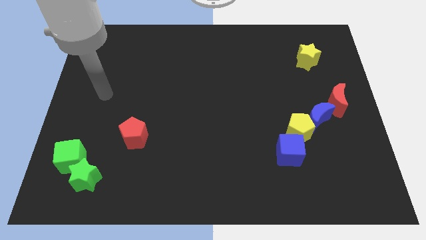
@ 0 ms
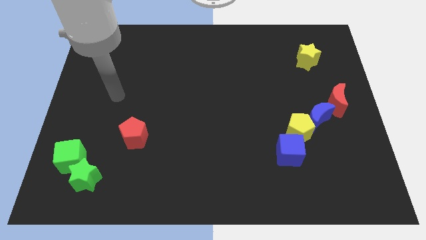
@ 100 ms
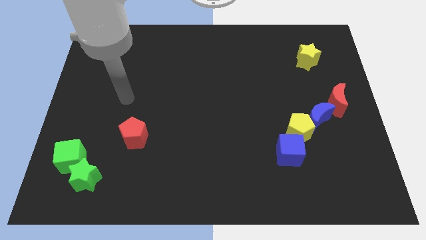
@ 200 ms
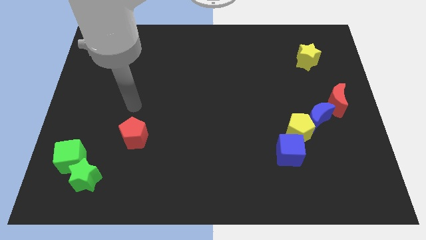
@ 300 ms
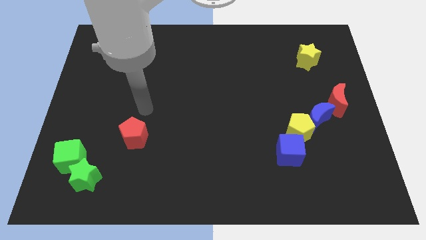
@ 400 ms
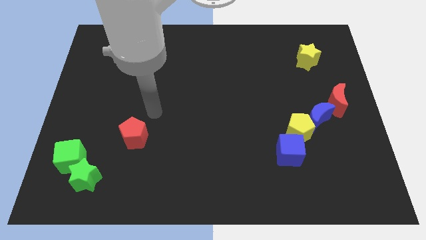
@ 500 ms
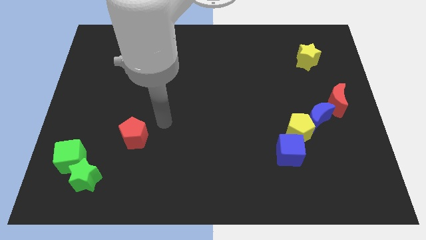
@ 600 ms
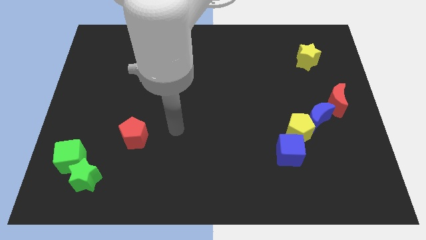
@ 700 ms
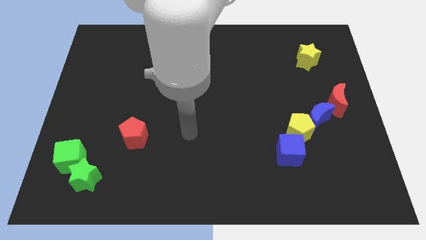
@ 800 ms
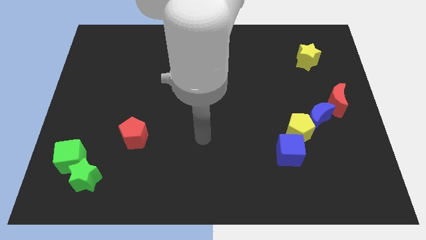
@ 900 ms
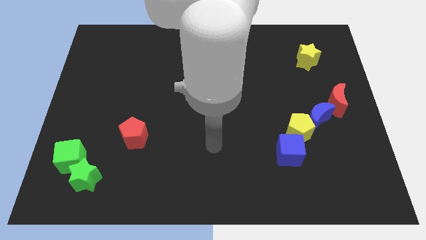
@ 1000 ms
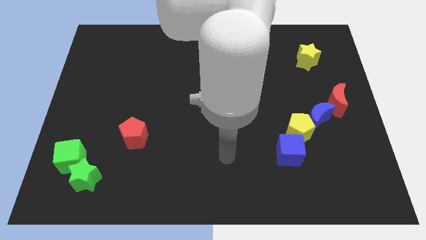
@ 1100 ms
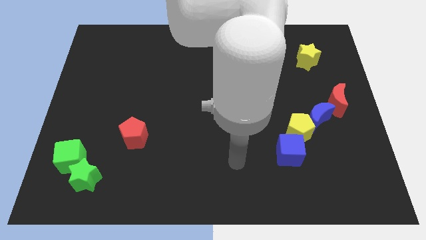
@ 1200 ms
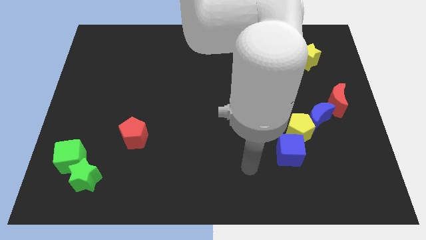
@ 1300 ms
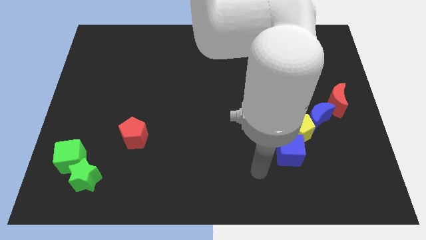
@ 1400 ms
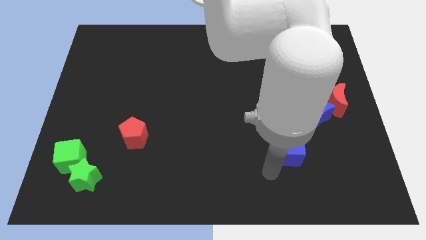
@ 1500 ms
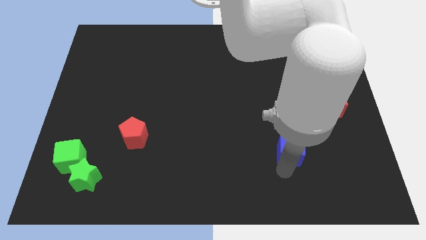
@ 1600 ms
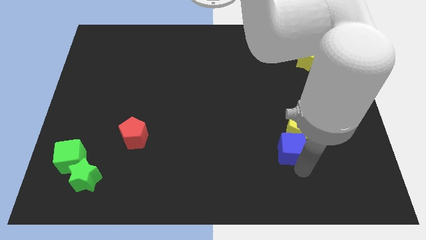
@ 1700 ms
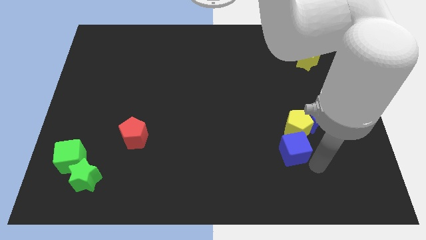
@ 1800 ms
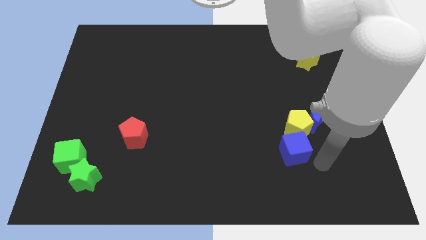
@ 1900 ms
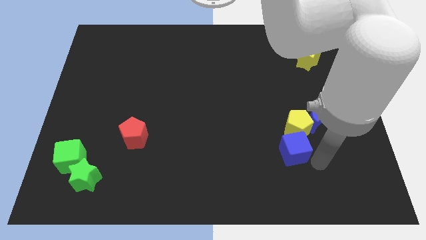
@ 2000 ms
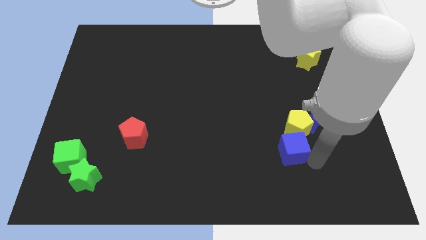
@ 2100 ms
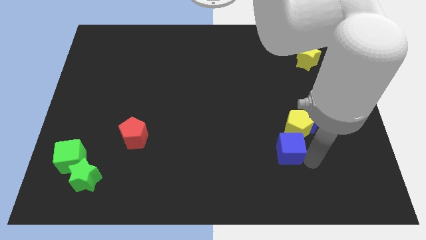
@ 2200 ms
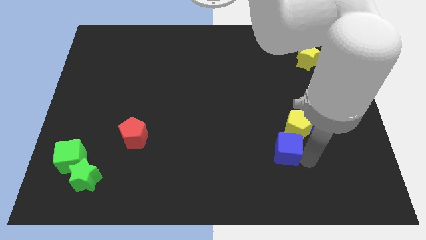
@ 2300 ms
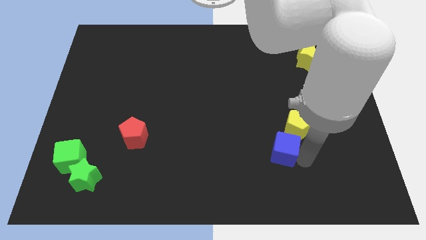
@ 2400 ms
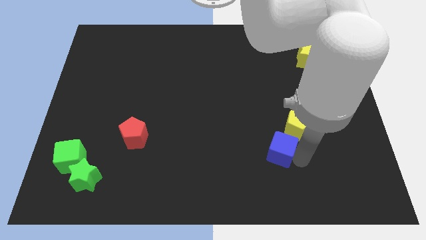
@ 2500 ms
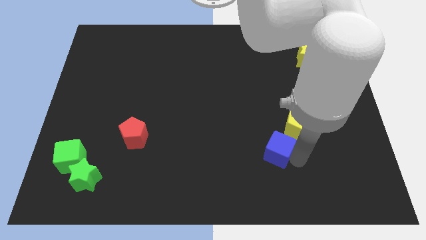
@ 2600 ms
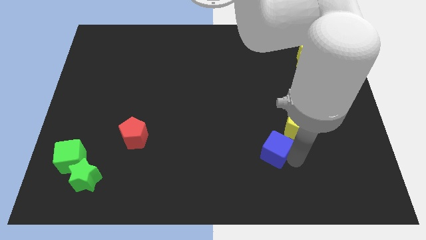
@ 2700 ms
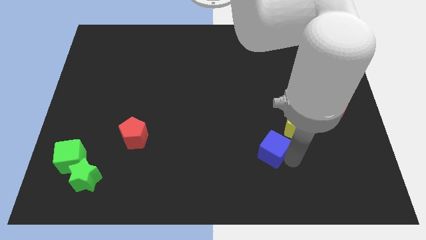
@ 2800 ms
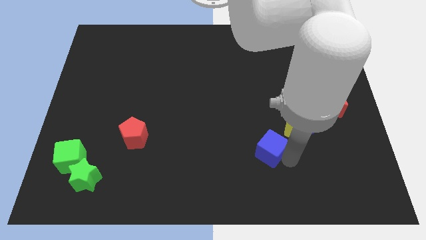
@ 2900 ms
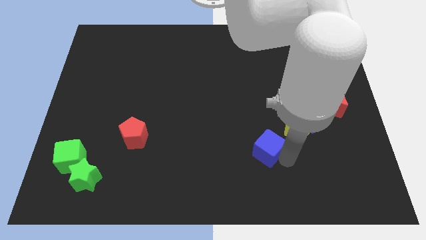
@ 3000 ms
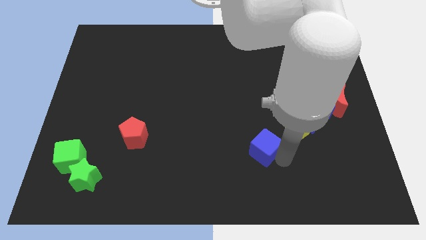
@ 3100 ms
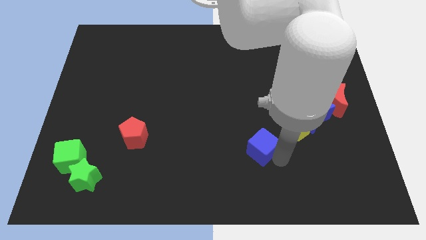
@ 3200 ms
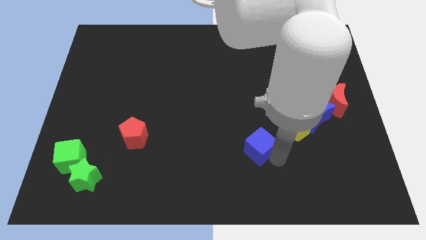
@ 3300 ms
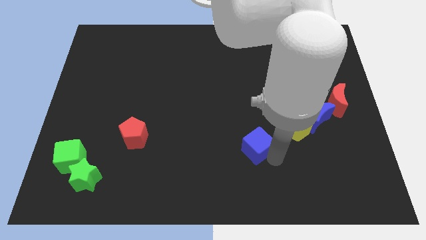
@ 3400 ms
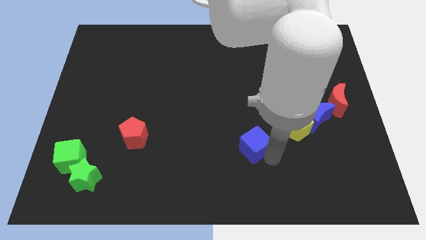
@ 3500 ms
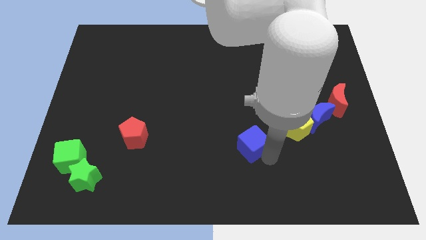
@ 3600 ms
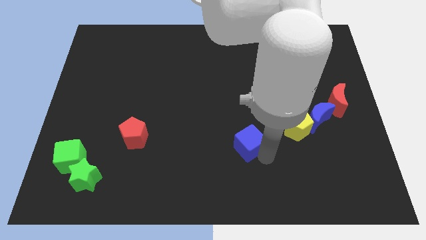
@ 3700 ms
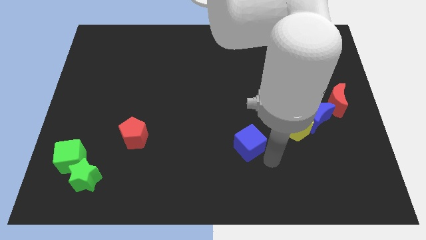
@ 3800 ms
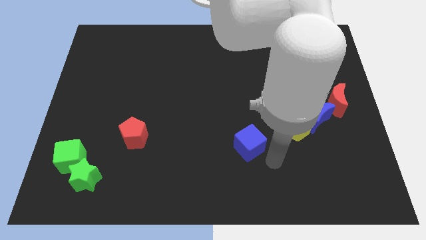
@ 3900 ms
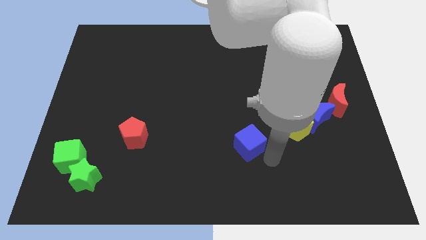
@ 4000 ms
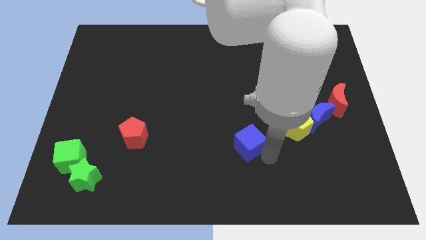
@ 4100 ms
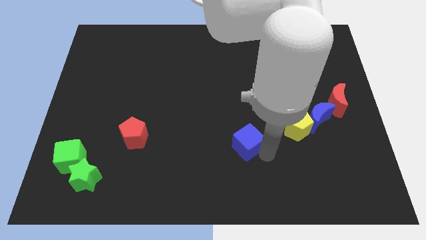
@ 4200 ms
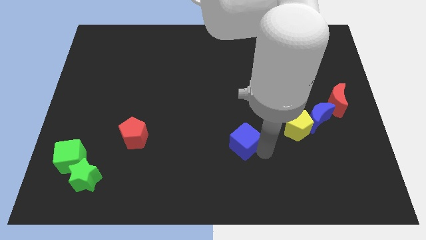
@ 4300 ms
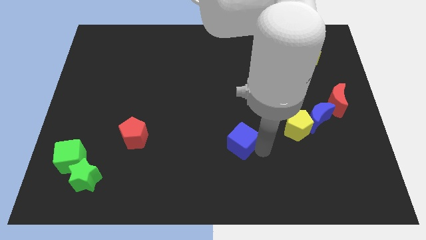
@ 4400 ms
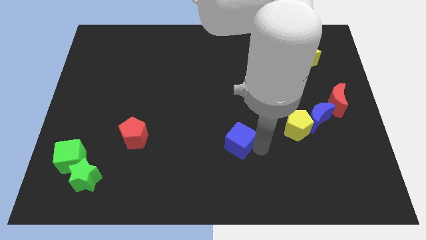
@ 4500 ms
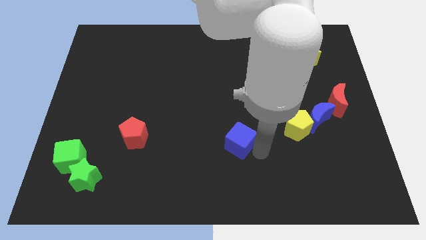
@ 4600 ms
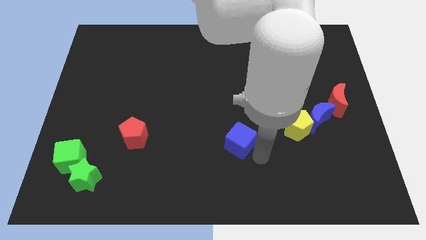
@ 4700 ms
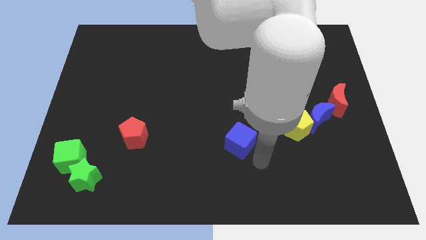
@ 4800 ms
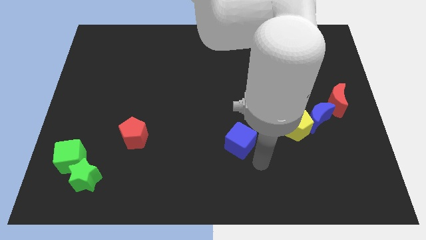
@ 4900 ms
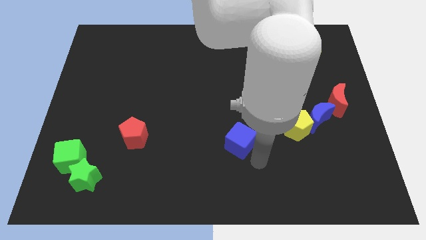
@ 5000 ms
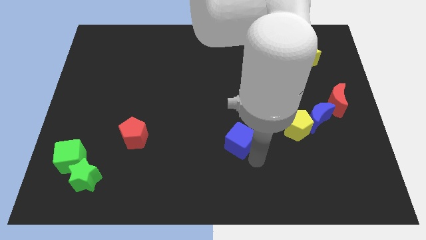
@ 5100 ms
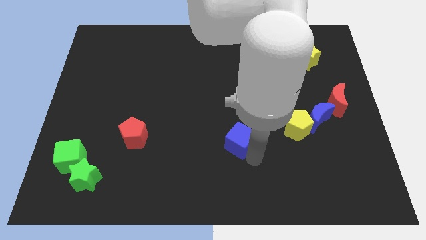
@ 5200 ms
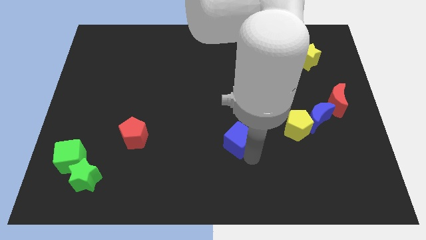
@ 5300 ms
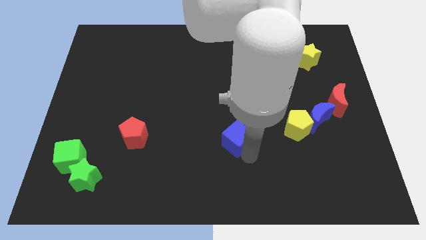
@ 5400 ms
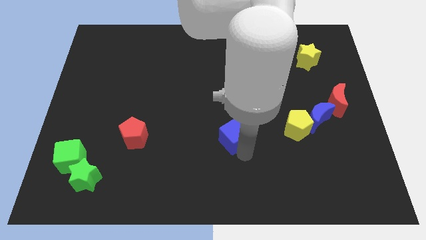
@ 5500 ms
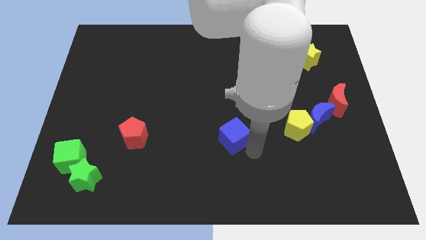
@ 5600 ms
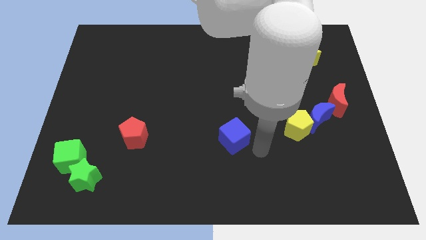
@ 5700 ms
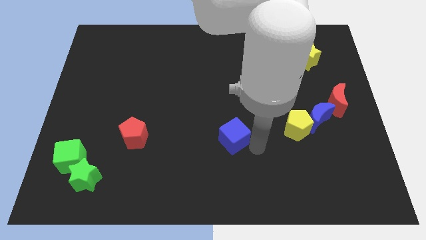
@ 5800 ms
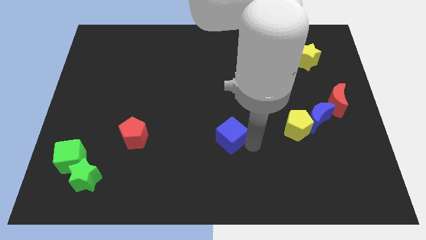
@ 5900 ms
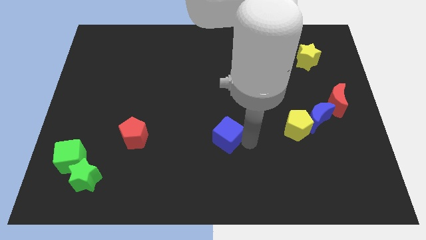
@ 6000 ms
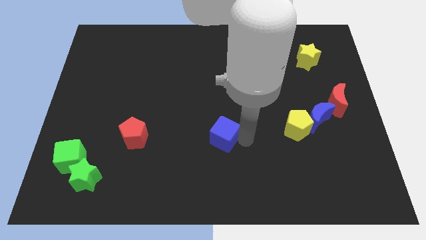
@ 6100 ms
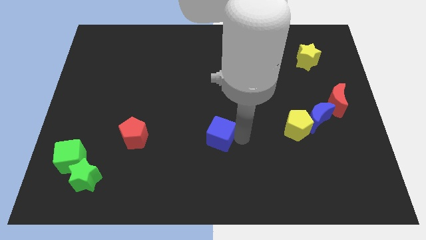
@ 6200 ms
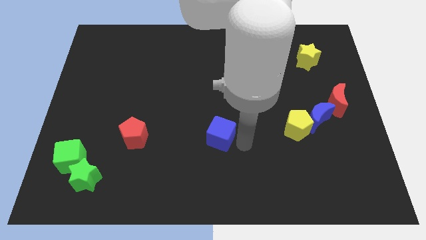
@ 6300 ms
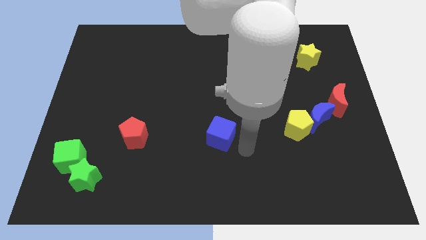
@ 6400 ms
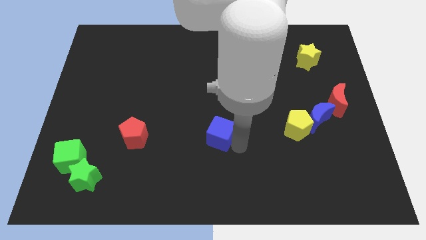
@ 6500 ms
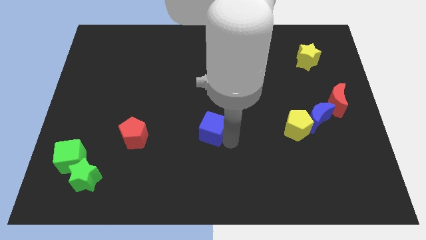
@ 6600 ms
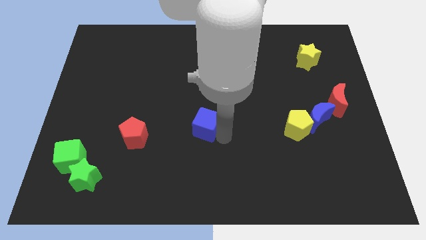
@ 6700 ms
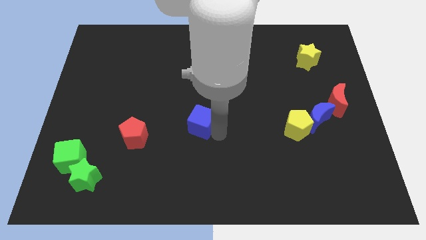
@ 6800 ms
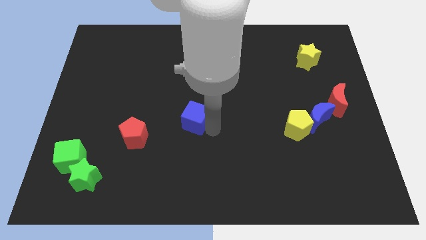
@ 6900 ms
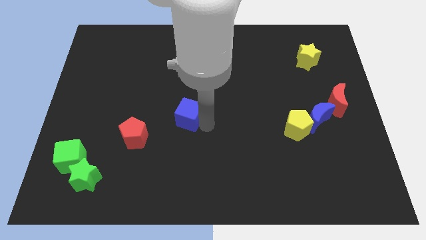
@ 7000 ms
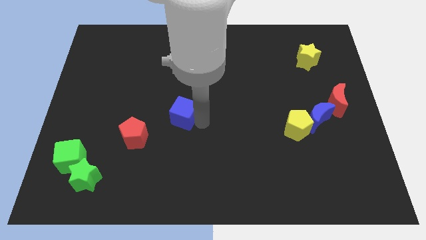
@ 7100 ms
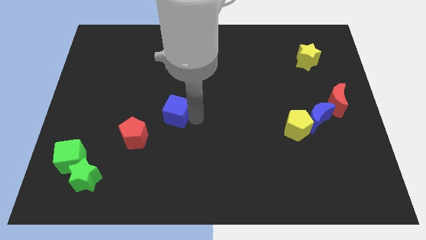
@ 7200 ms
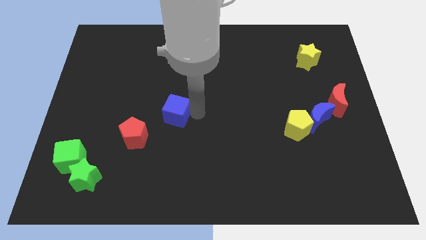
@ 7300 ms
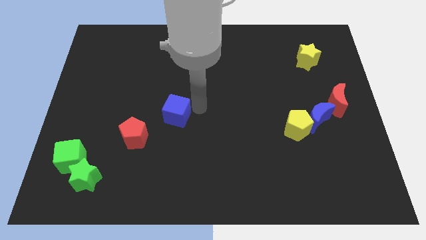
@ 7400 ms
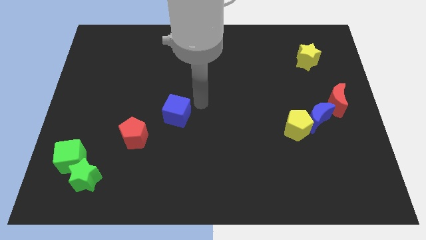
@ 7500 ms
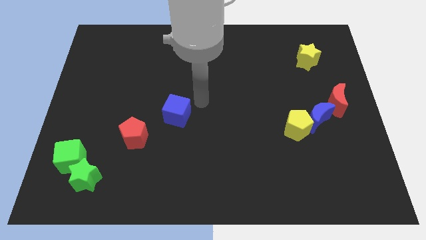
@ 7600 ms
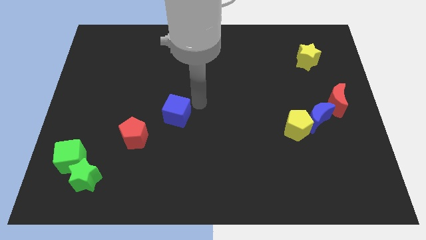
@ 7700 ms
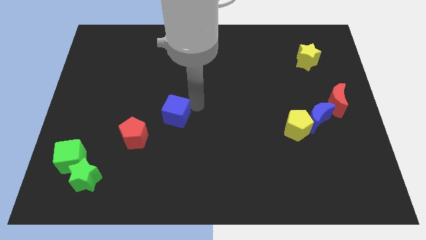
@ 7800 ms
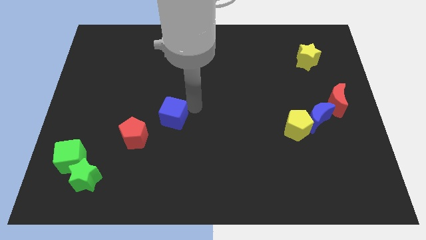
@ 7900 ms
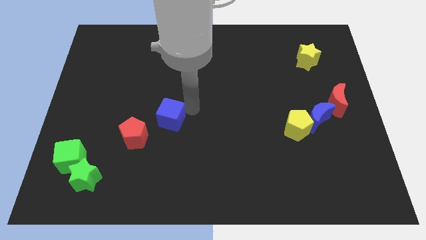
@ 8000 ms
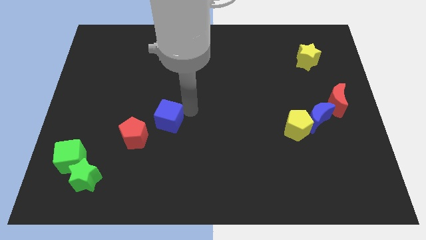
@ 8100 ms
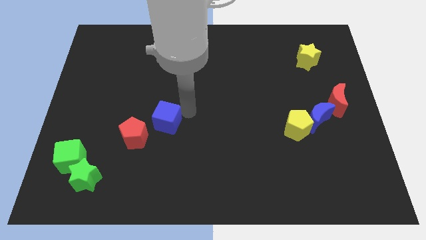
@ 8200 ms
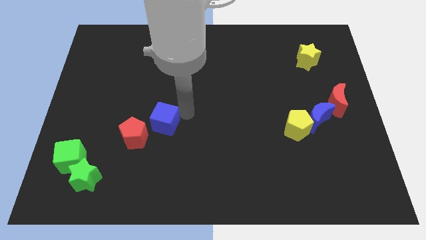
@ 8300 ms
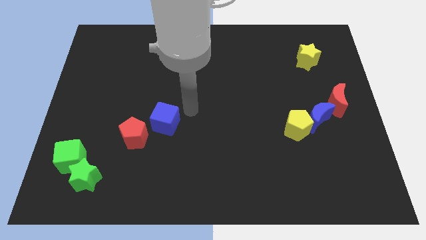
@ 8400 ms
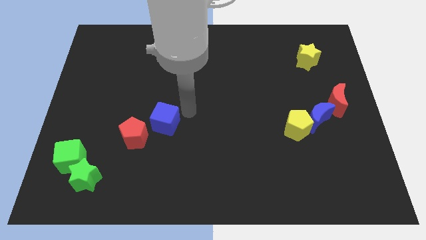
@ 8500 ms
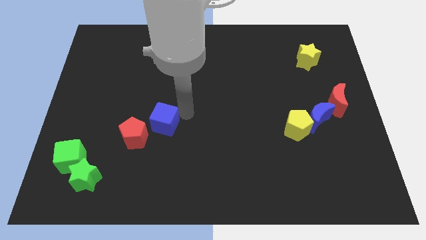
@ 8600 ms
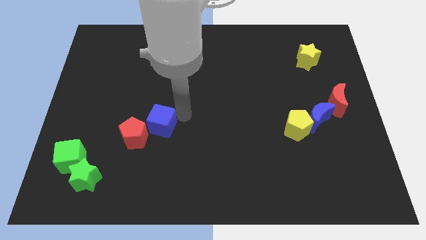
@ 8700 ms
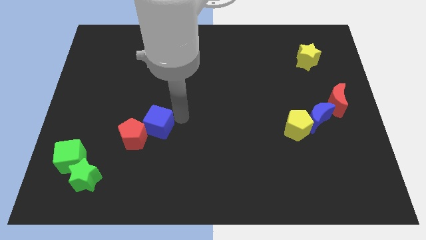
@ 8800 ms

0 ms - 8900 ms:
put the blue cube next to the red pentagon
